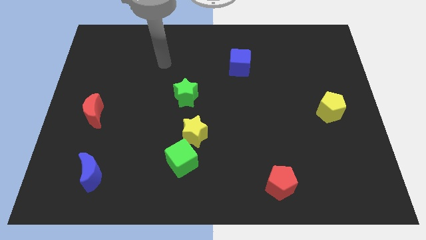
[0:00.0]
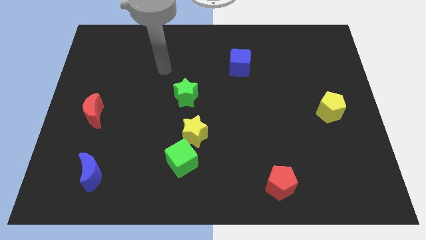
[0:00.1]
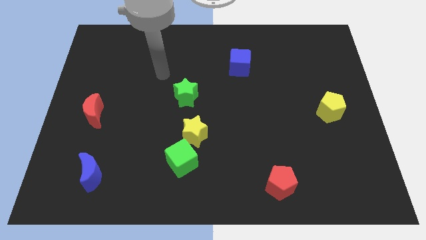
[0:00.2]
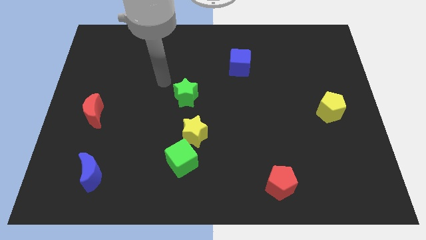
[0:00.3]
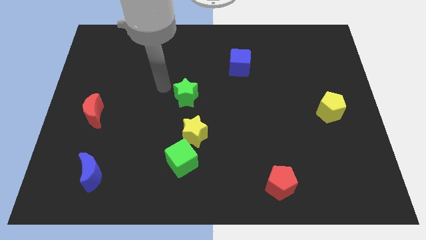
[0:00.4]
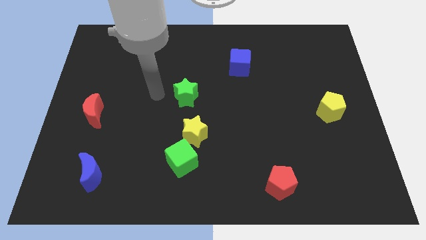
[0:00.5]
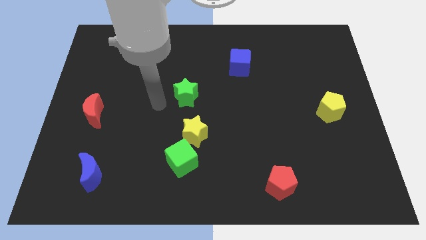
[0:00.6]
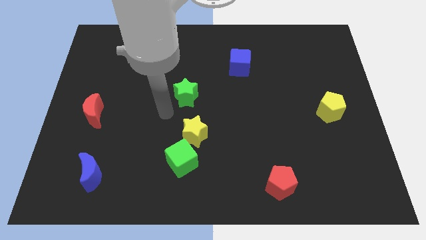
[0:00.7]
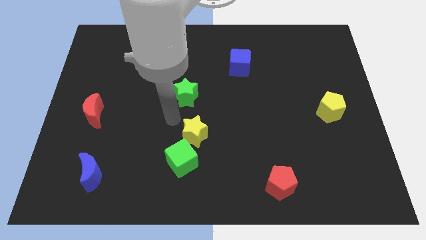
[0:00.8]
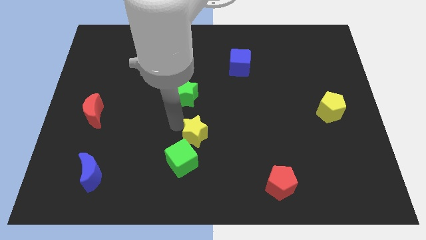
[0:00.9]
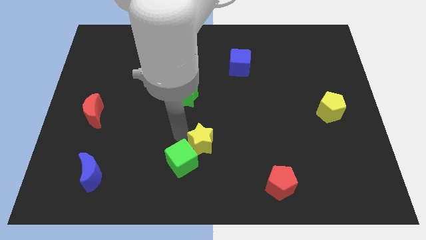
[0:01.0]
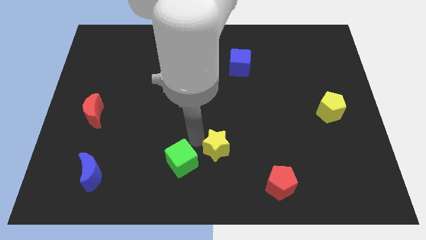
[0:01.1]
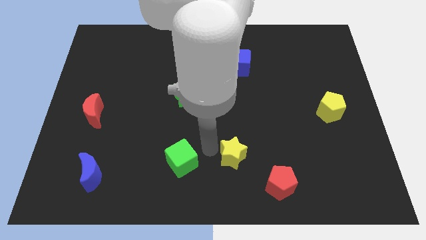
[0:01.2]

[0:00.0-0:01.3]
move the green cube away from the yellow star

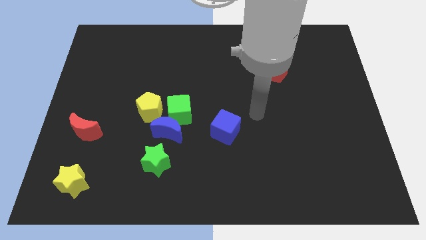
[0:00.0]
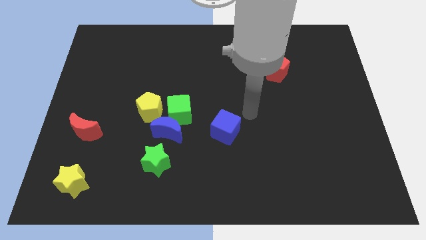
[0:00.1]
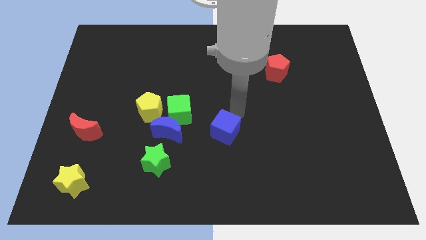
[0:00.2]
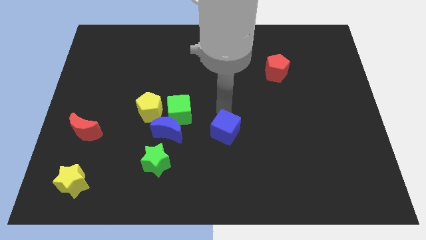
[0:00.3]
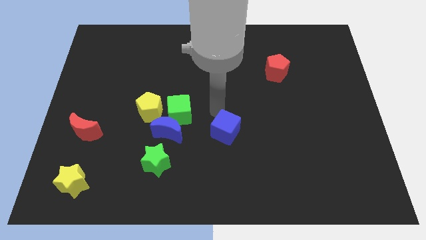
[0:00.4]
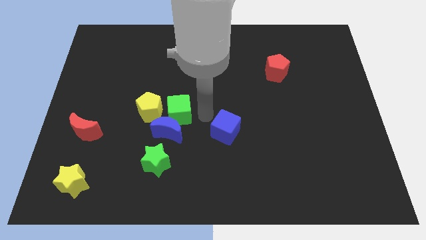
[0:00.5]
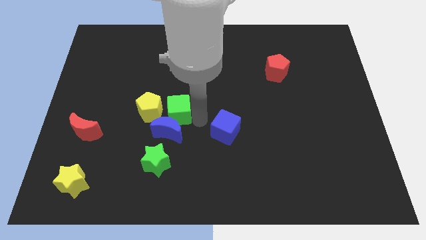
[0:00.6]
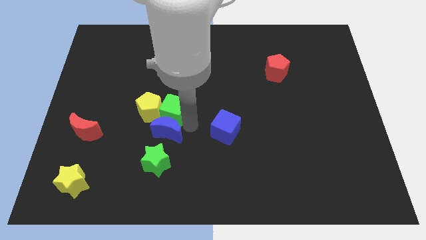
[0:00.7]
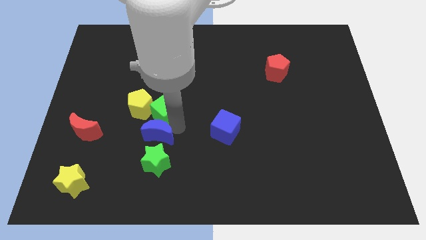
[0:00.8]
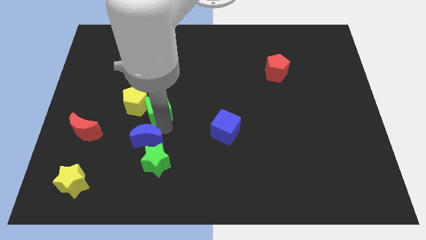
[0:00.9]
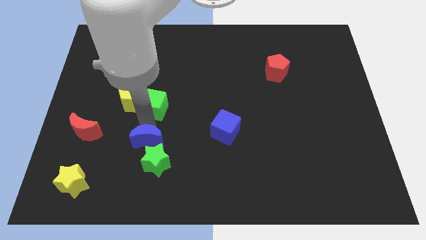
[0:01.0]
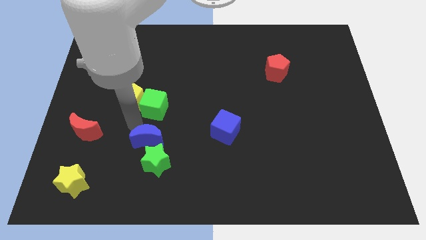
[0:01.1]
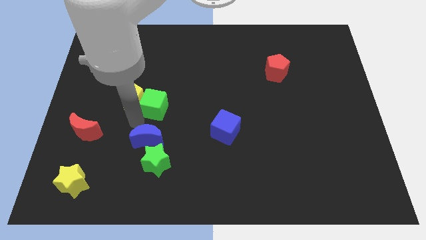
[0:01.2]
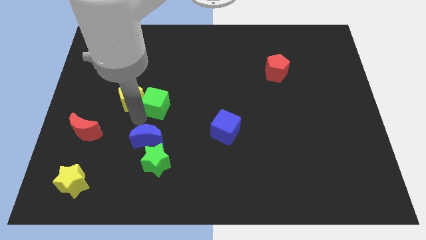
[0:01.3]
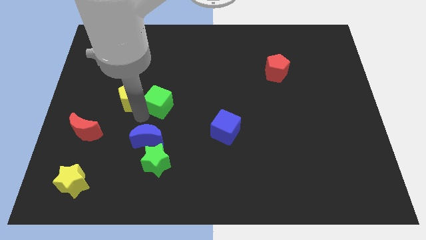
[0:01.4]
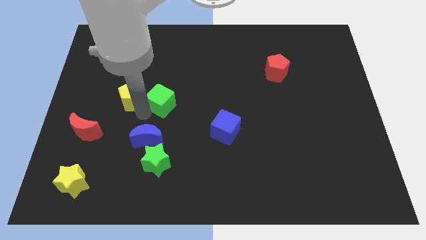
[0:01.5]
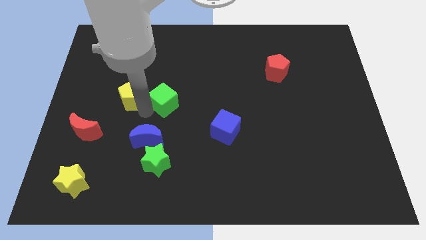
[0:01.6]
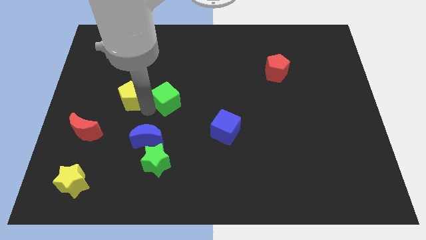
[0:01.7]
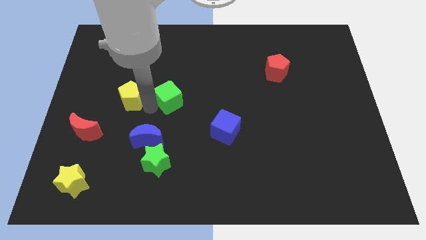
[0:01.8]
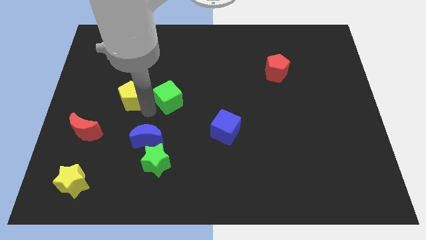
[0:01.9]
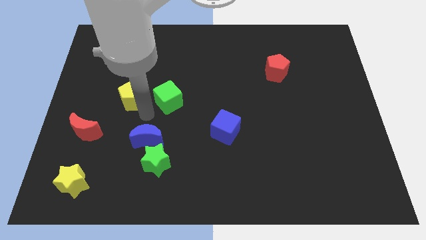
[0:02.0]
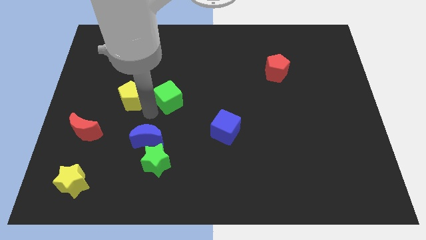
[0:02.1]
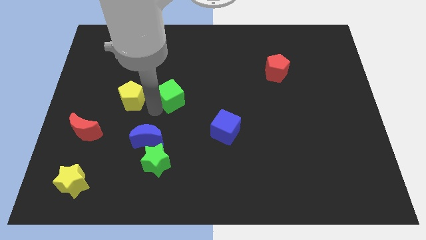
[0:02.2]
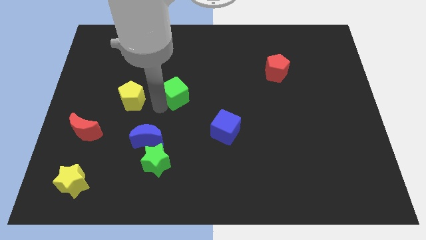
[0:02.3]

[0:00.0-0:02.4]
move the green cube away from the blue moon and yellow pentagon

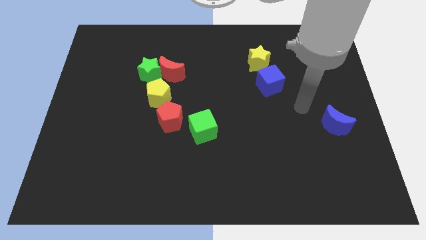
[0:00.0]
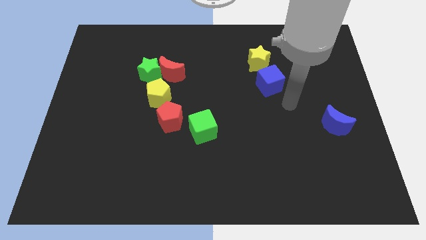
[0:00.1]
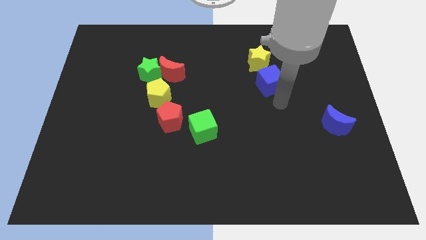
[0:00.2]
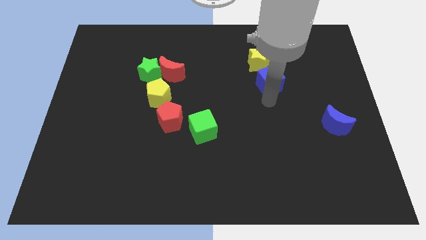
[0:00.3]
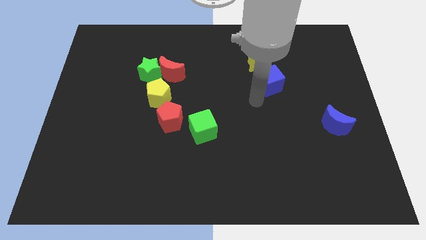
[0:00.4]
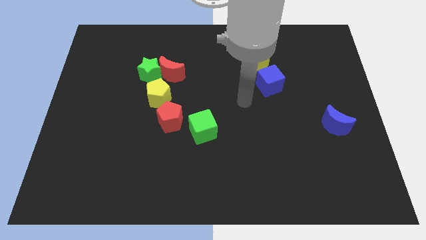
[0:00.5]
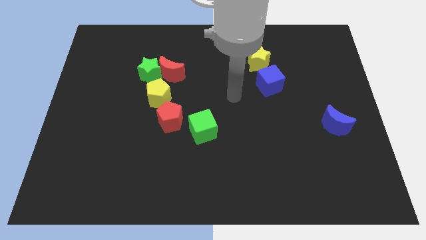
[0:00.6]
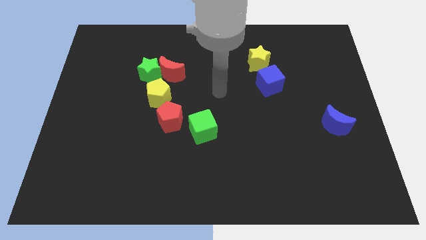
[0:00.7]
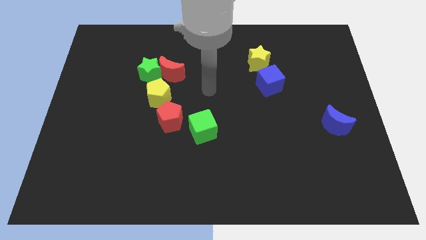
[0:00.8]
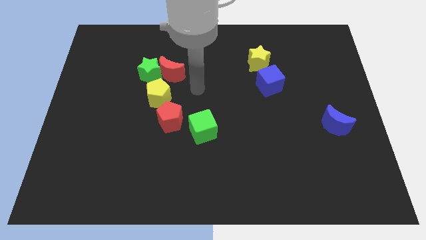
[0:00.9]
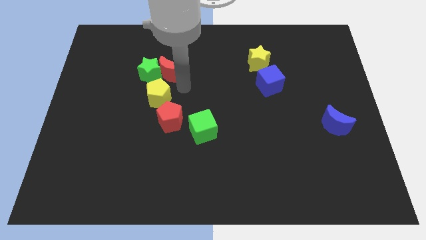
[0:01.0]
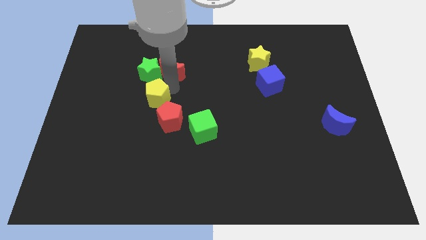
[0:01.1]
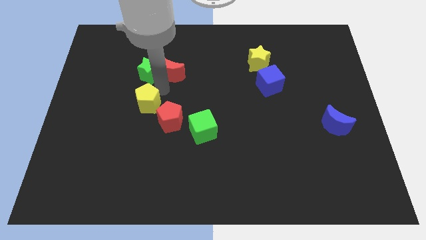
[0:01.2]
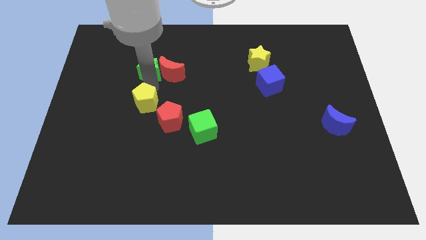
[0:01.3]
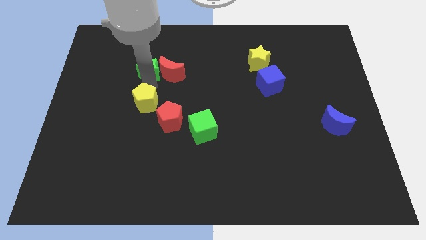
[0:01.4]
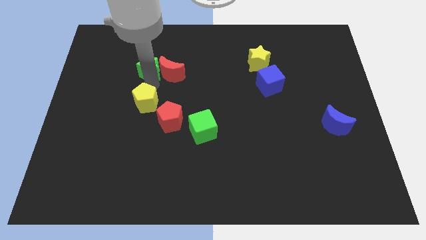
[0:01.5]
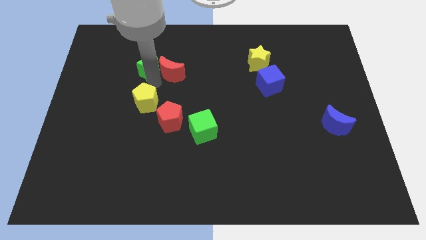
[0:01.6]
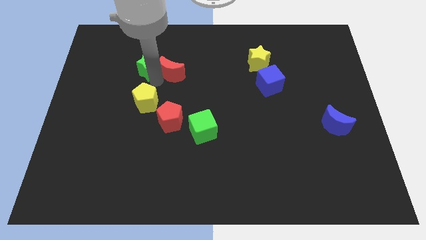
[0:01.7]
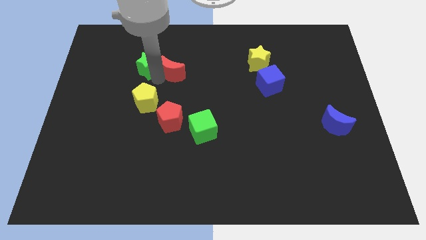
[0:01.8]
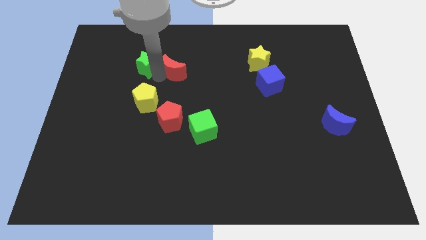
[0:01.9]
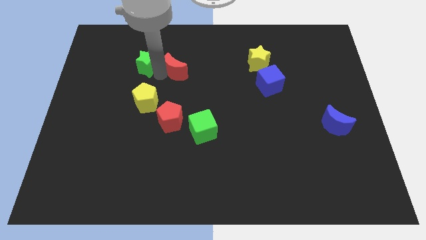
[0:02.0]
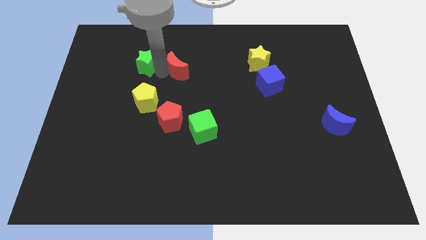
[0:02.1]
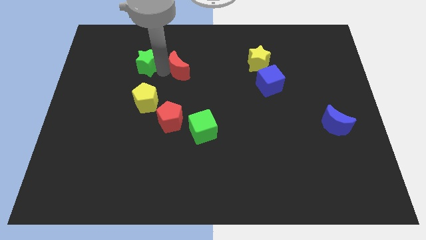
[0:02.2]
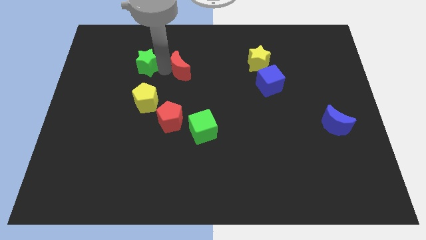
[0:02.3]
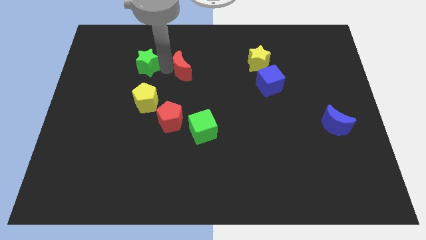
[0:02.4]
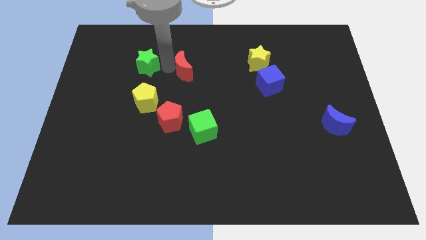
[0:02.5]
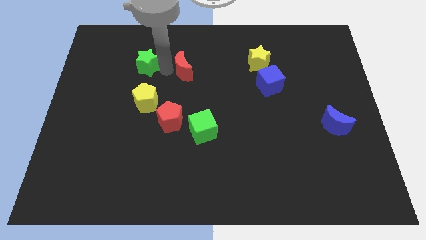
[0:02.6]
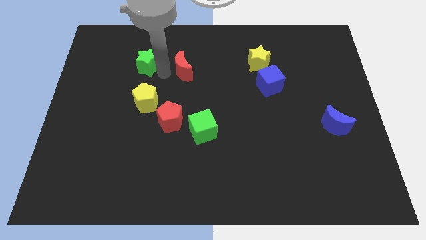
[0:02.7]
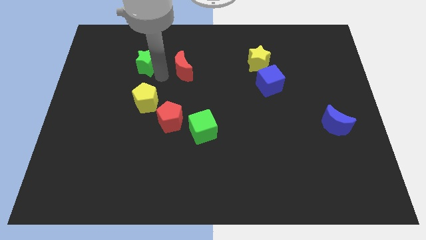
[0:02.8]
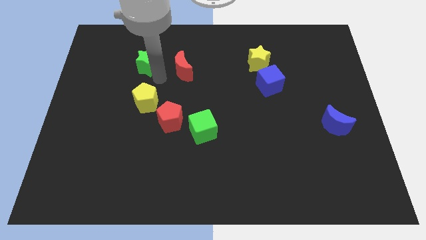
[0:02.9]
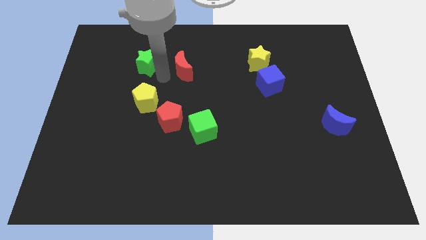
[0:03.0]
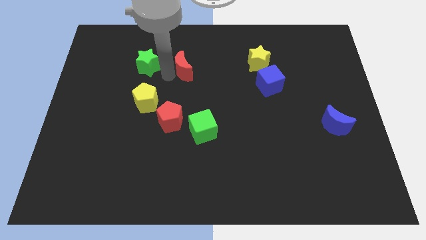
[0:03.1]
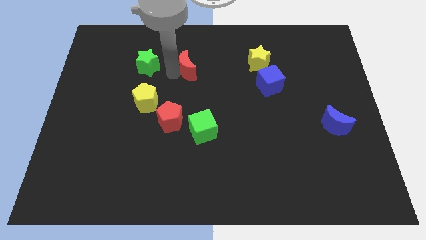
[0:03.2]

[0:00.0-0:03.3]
pull the red moon apart from the green star and yellow pentagon

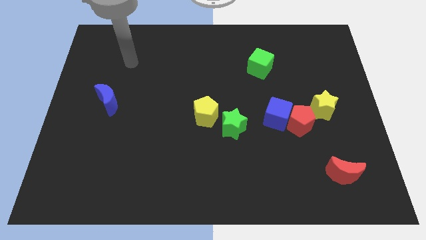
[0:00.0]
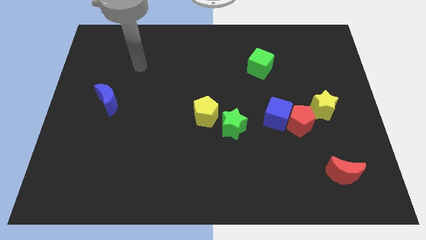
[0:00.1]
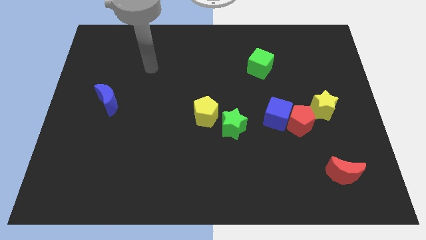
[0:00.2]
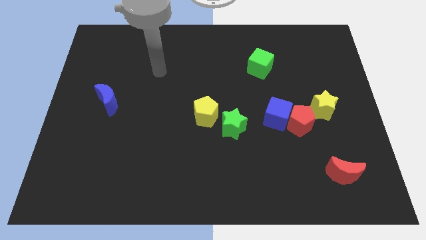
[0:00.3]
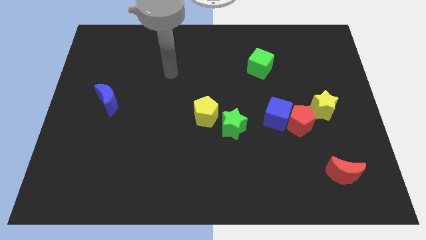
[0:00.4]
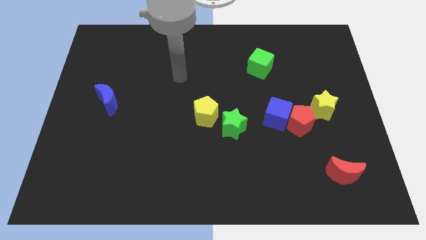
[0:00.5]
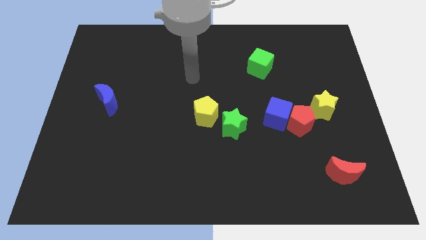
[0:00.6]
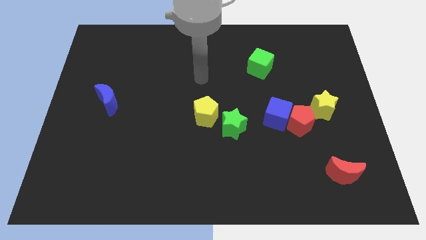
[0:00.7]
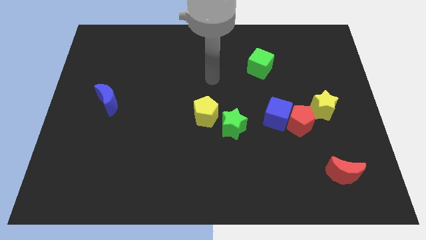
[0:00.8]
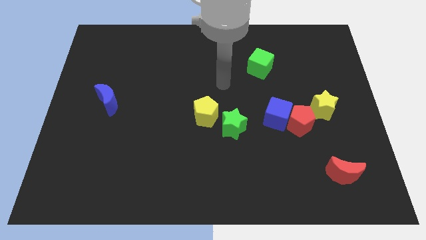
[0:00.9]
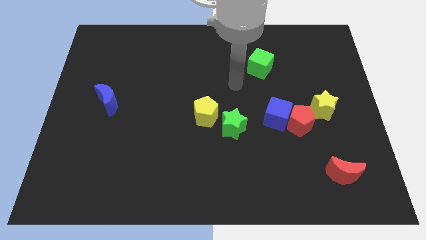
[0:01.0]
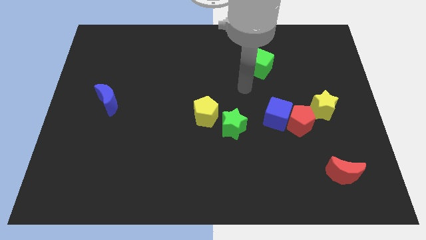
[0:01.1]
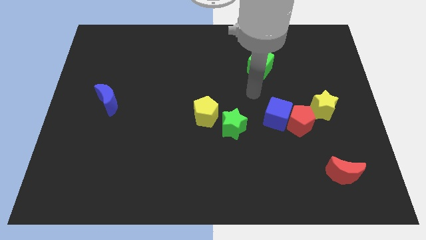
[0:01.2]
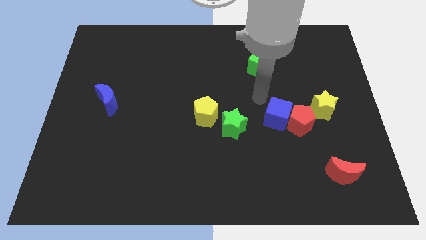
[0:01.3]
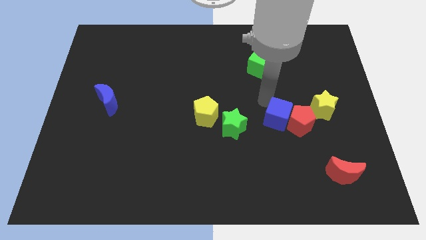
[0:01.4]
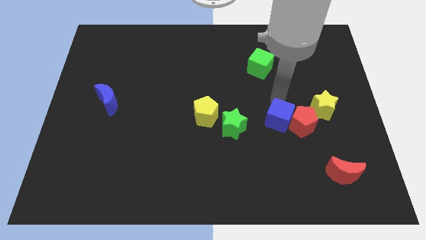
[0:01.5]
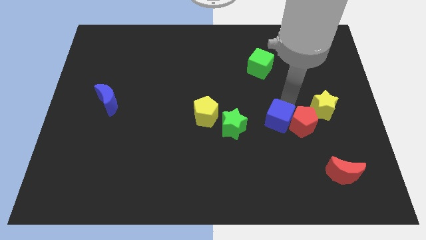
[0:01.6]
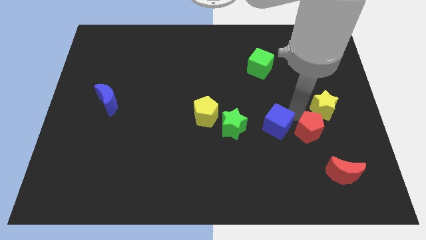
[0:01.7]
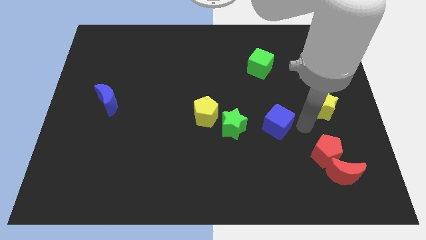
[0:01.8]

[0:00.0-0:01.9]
pull the blue cube apart from the red pentagon

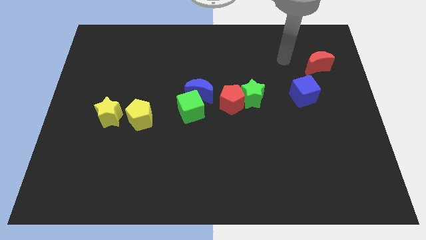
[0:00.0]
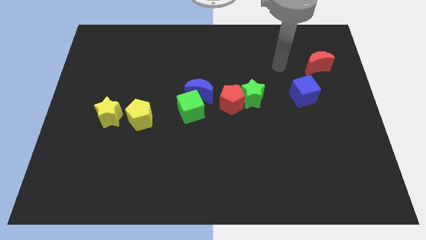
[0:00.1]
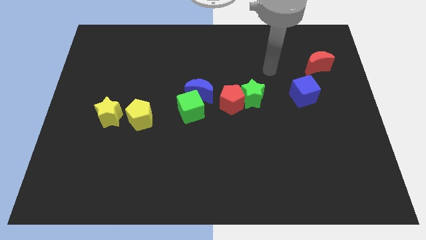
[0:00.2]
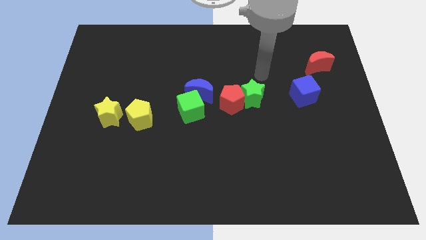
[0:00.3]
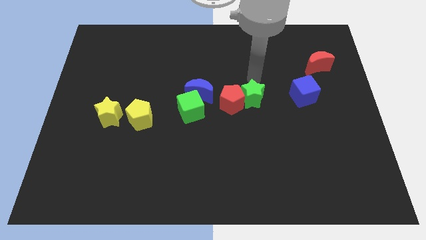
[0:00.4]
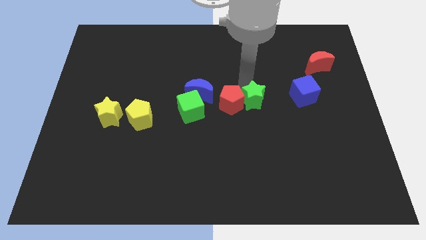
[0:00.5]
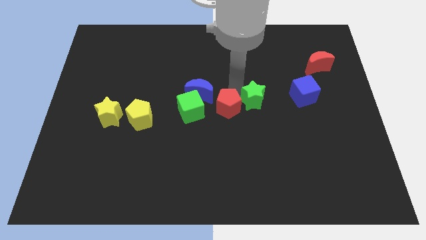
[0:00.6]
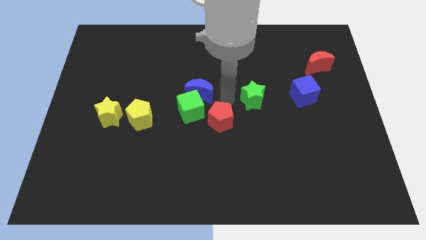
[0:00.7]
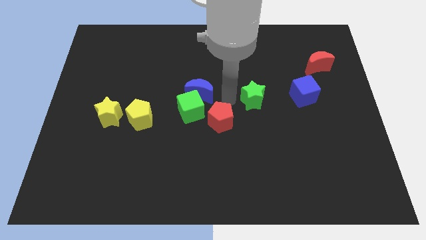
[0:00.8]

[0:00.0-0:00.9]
separate the green star from the red pentagon
